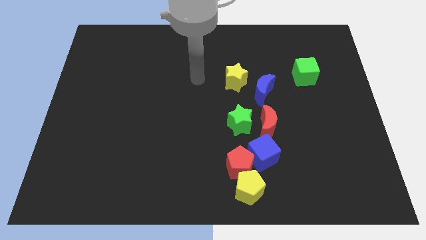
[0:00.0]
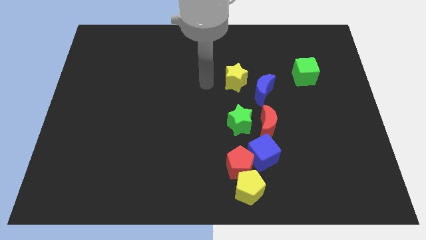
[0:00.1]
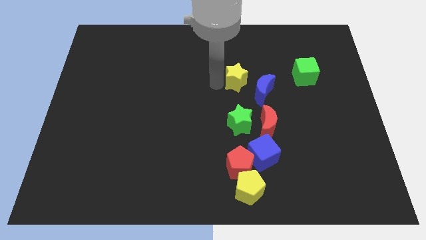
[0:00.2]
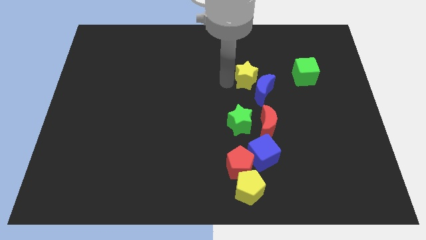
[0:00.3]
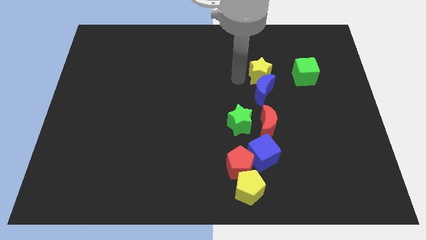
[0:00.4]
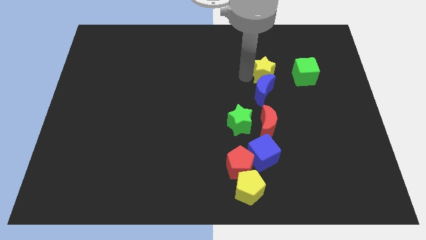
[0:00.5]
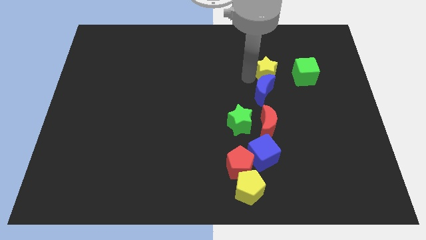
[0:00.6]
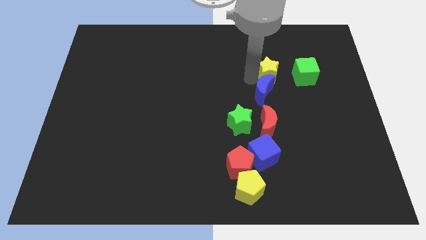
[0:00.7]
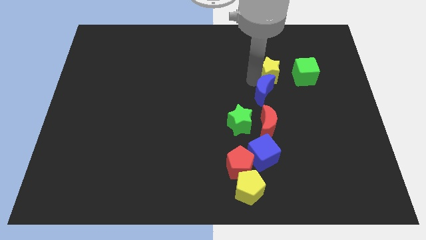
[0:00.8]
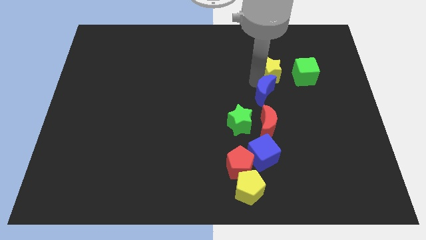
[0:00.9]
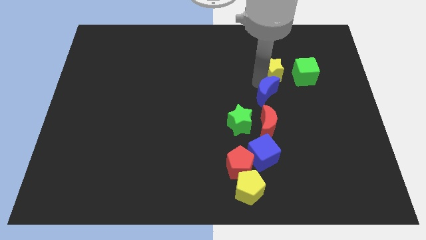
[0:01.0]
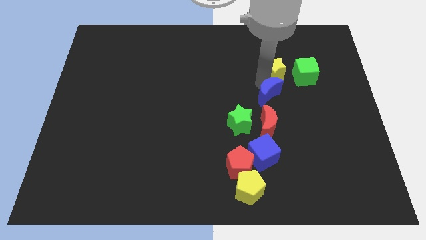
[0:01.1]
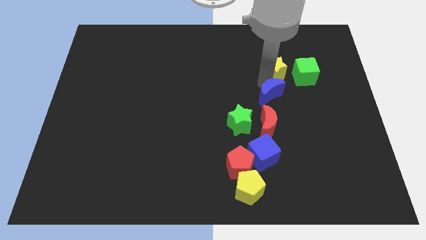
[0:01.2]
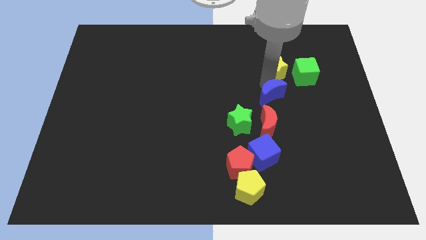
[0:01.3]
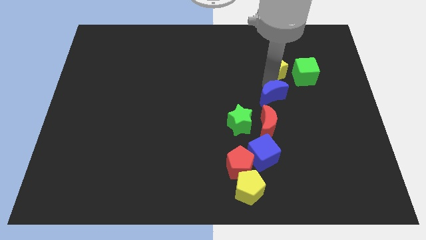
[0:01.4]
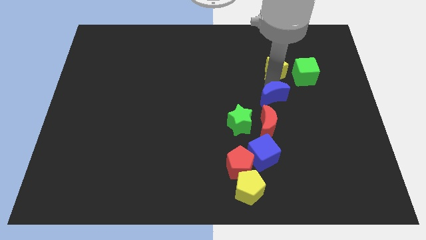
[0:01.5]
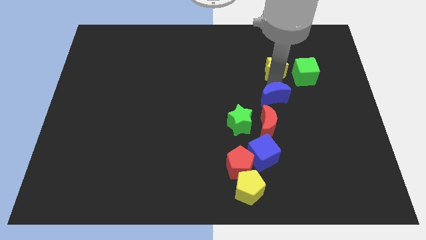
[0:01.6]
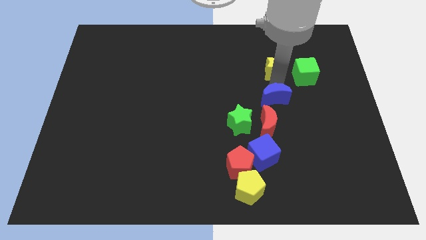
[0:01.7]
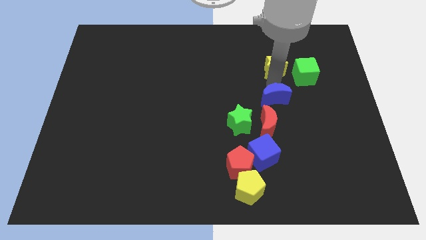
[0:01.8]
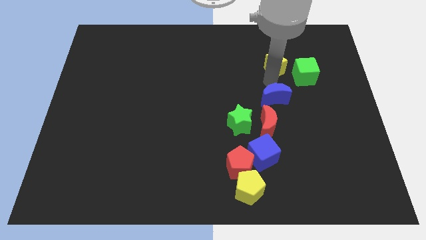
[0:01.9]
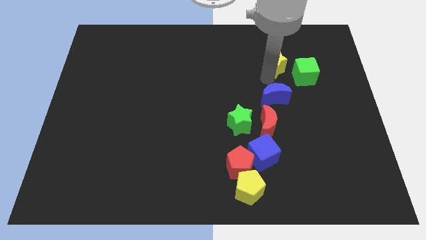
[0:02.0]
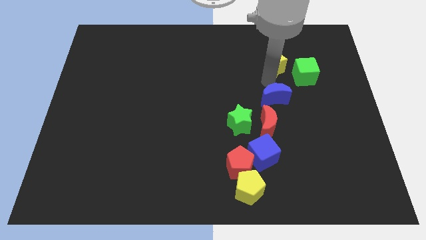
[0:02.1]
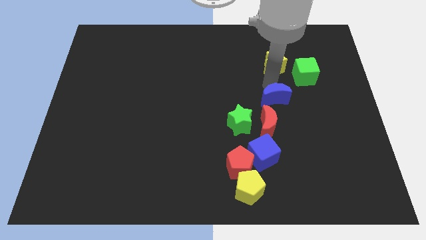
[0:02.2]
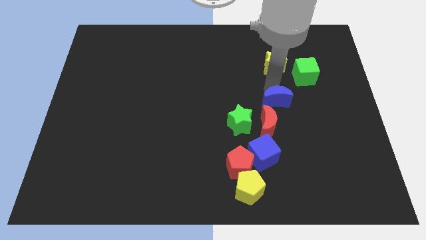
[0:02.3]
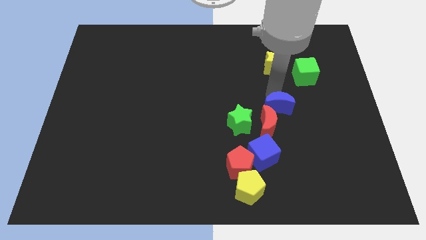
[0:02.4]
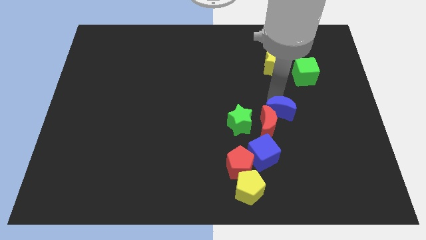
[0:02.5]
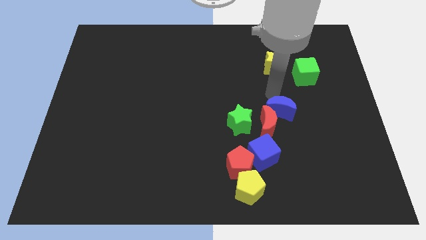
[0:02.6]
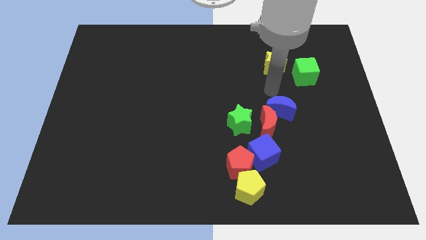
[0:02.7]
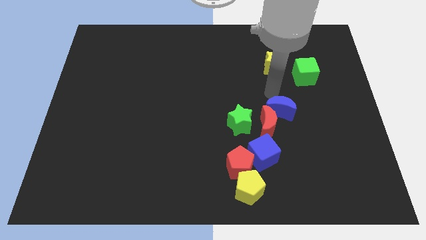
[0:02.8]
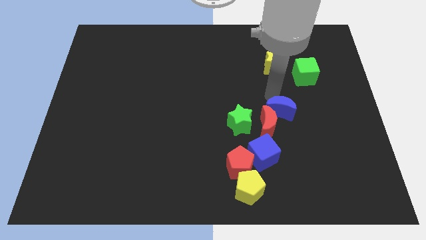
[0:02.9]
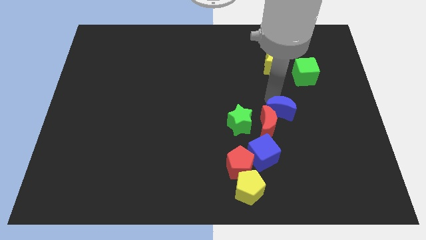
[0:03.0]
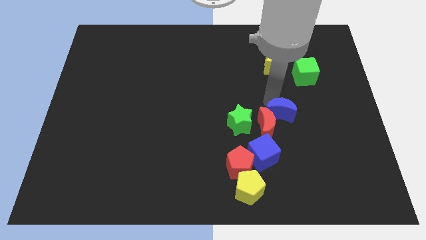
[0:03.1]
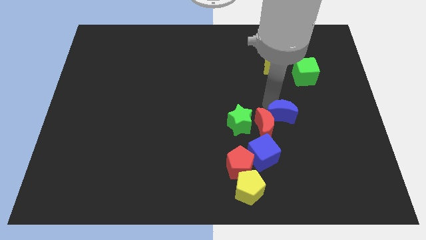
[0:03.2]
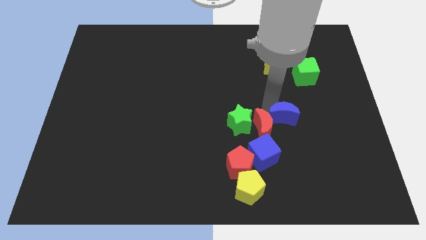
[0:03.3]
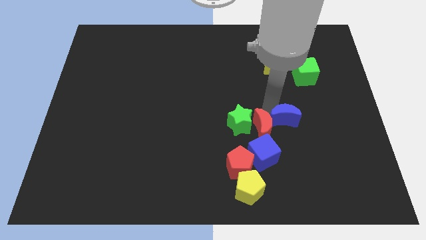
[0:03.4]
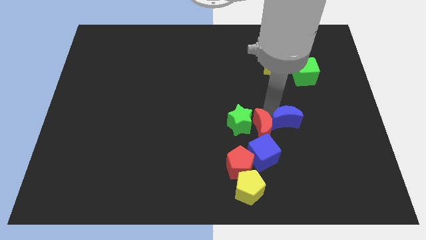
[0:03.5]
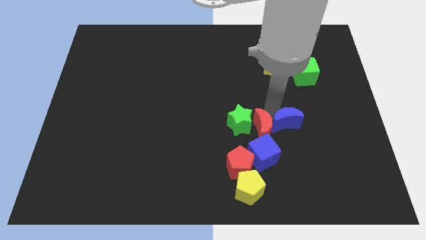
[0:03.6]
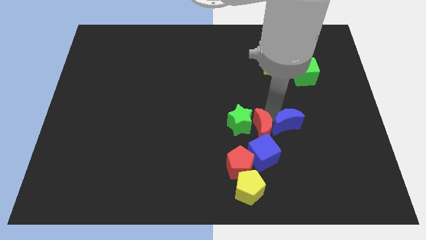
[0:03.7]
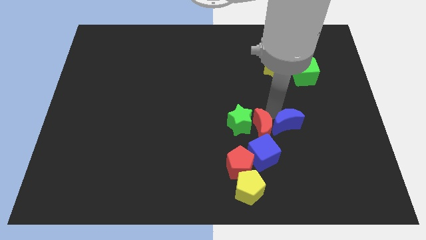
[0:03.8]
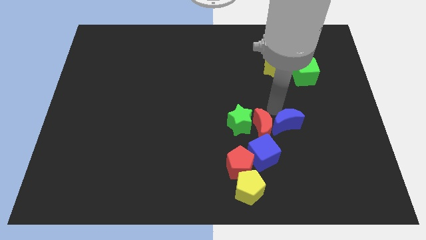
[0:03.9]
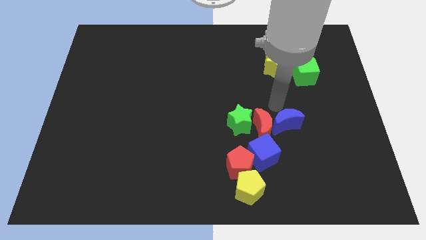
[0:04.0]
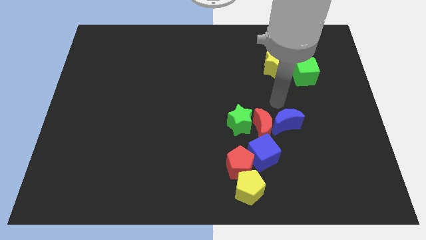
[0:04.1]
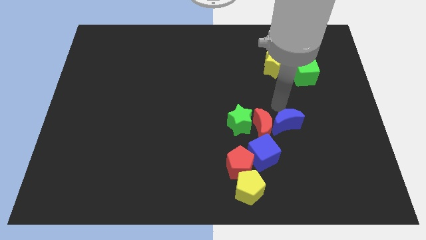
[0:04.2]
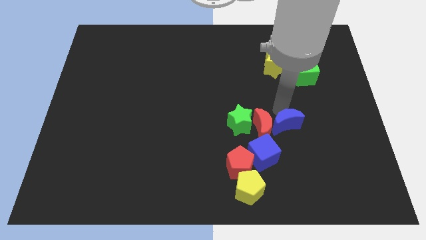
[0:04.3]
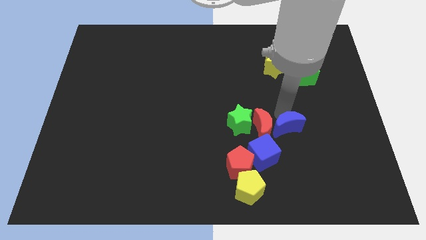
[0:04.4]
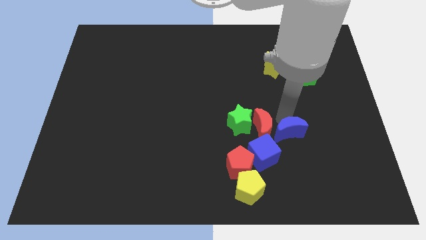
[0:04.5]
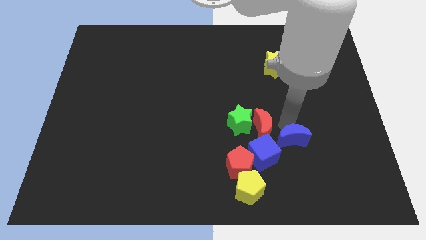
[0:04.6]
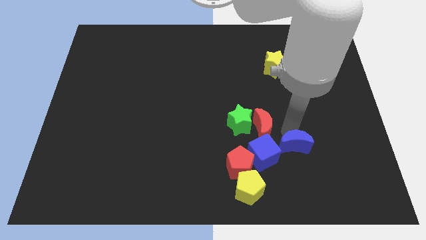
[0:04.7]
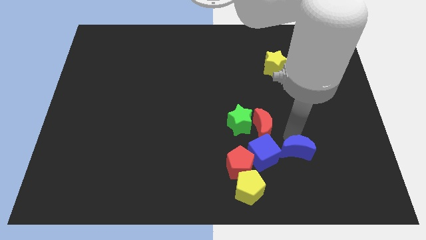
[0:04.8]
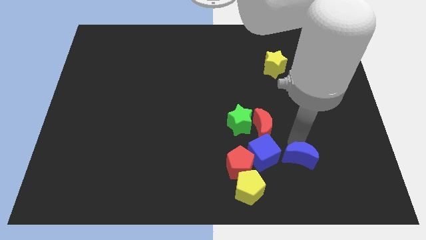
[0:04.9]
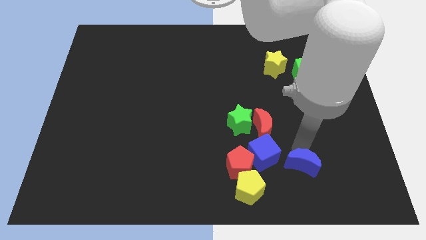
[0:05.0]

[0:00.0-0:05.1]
push the blue moon to the bottom right side of the blue cube
